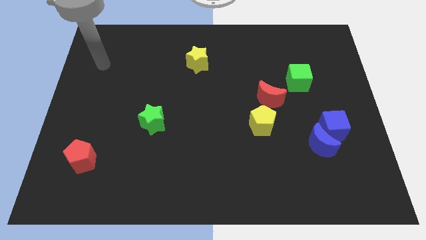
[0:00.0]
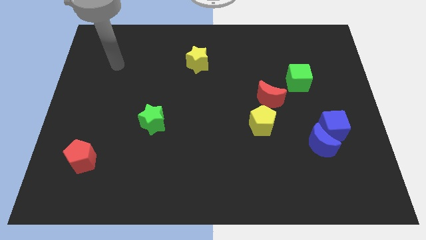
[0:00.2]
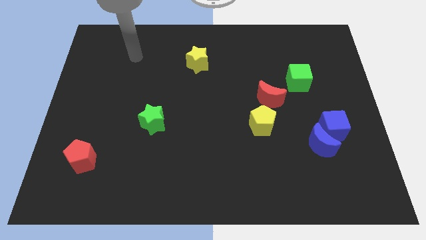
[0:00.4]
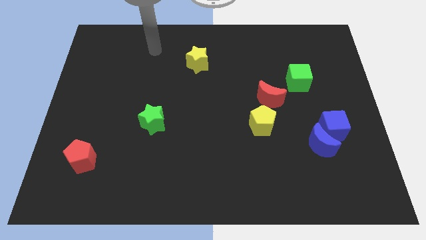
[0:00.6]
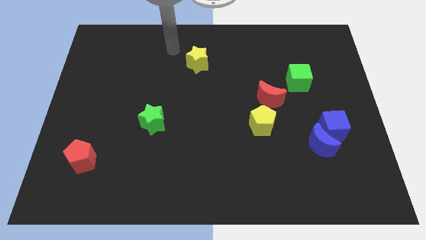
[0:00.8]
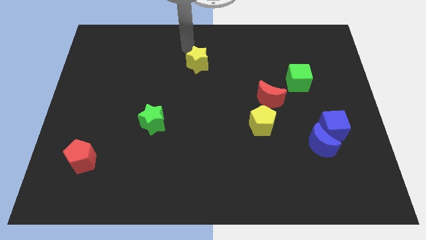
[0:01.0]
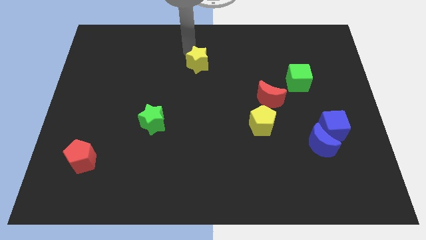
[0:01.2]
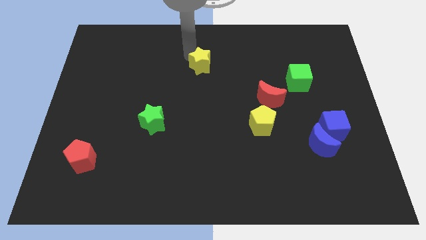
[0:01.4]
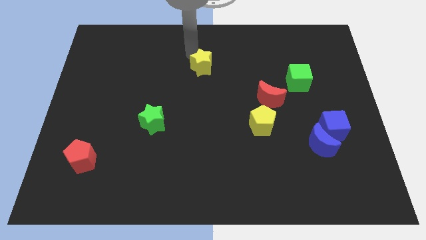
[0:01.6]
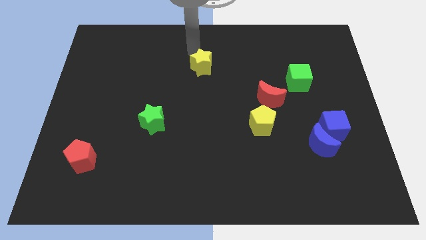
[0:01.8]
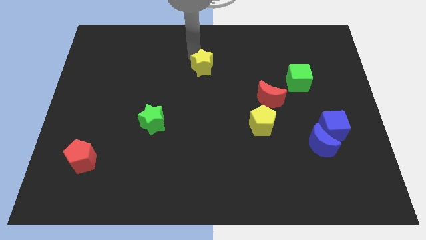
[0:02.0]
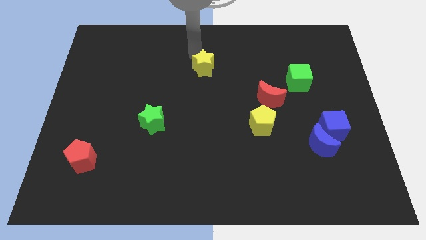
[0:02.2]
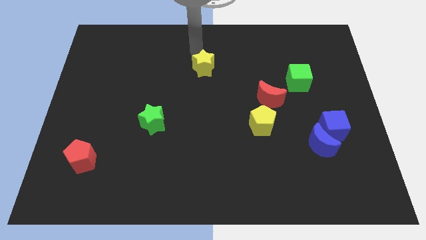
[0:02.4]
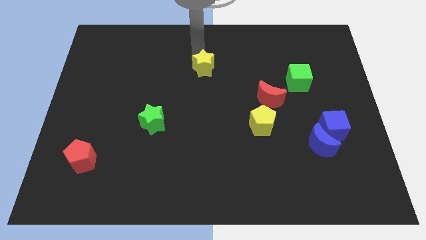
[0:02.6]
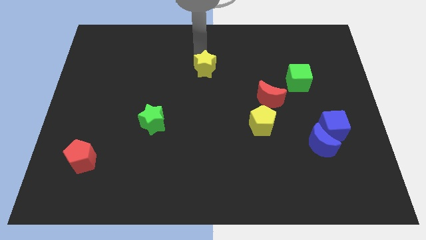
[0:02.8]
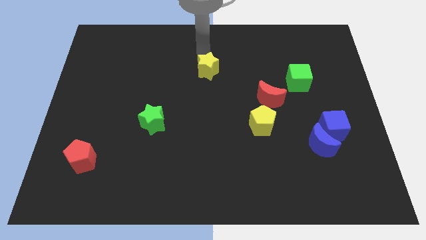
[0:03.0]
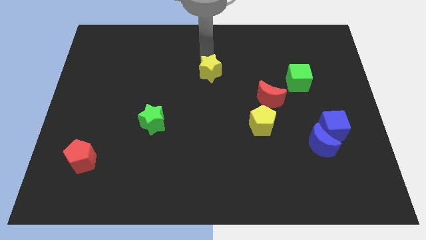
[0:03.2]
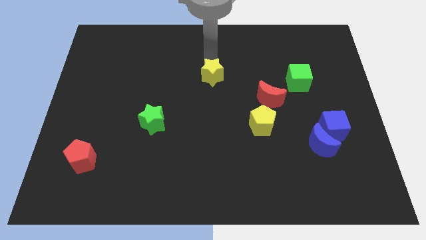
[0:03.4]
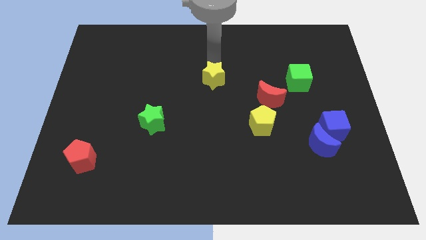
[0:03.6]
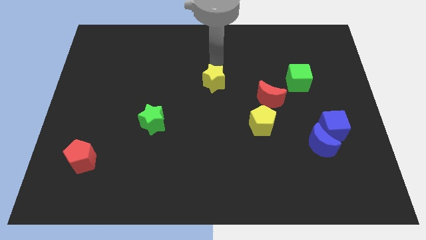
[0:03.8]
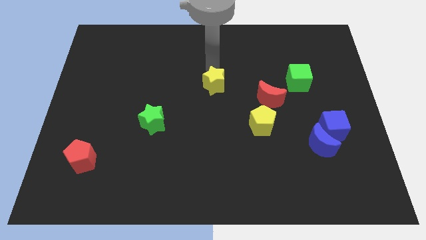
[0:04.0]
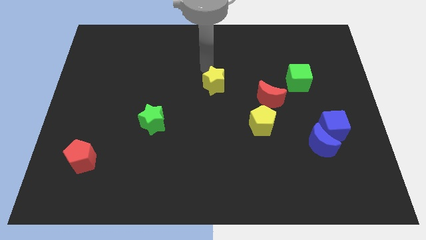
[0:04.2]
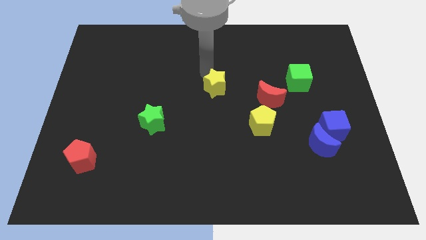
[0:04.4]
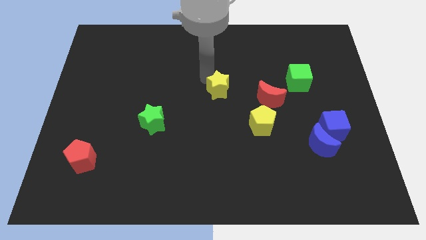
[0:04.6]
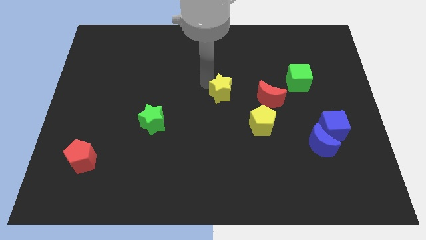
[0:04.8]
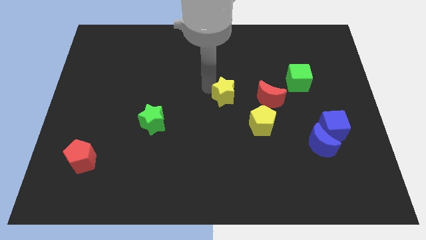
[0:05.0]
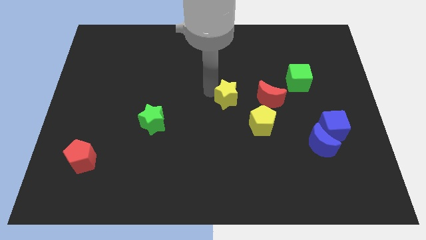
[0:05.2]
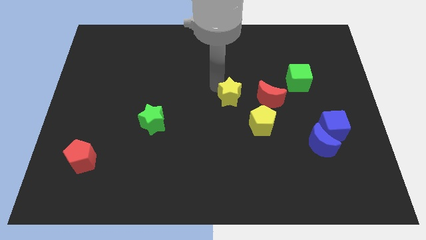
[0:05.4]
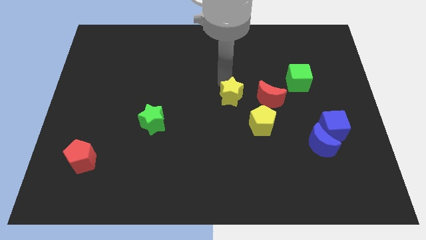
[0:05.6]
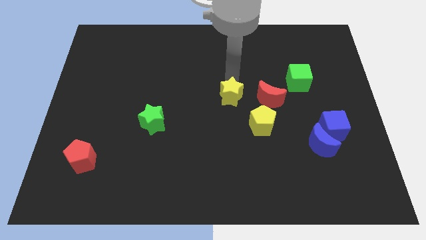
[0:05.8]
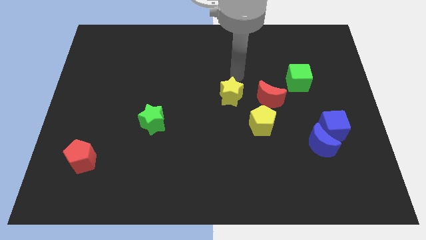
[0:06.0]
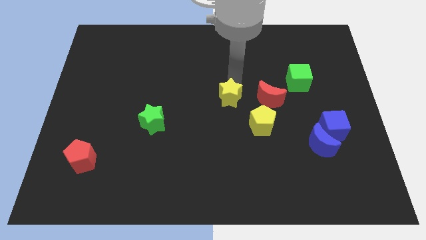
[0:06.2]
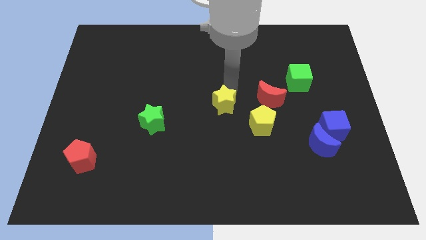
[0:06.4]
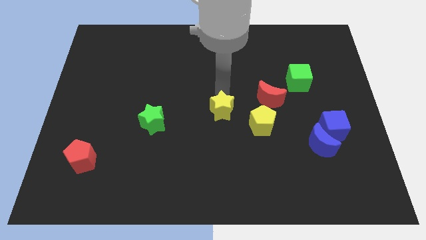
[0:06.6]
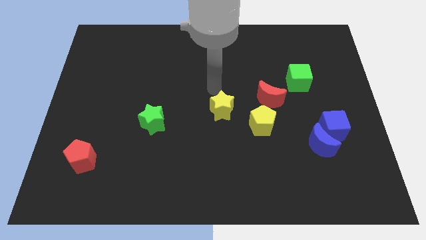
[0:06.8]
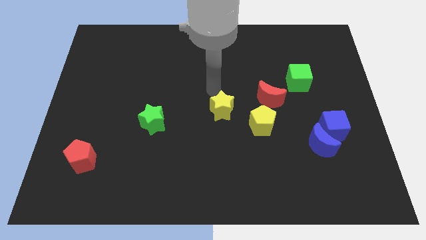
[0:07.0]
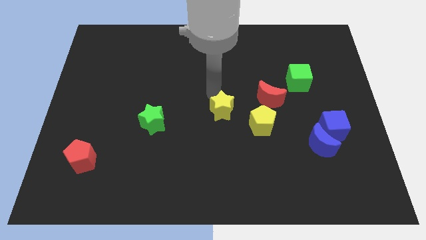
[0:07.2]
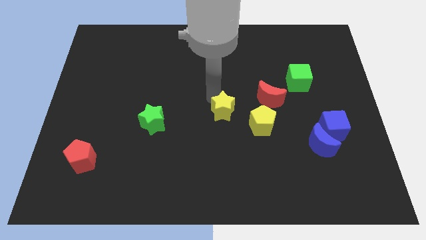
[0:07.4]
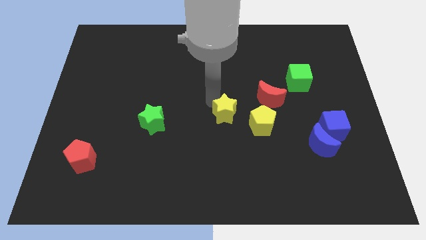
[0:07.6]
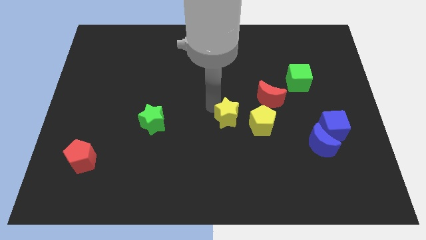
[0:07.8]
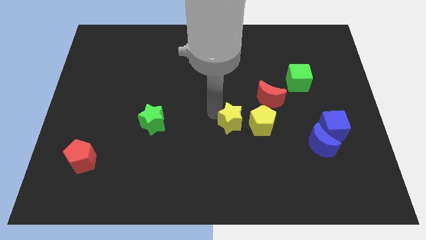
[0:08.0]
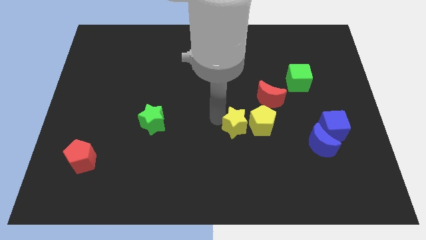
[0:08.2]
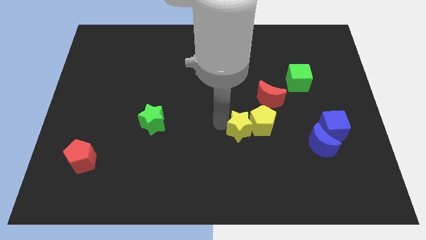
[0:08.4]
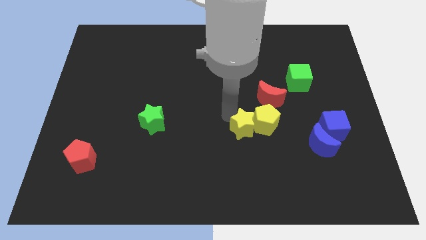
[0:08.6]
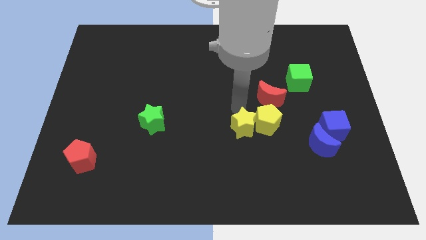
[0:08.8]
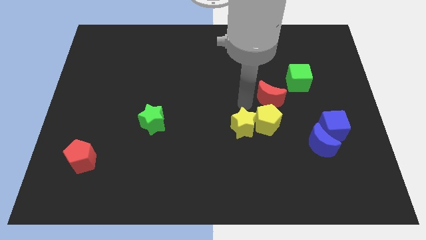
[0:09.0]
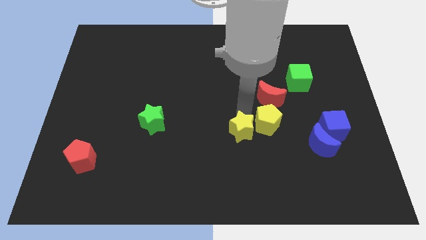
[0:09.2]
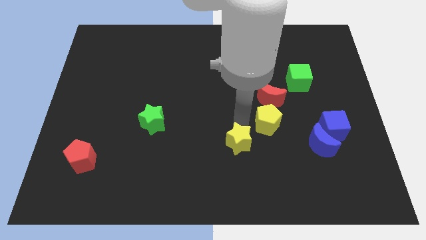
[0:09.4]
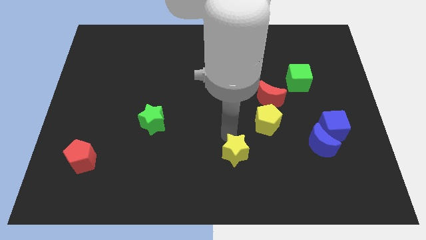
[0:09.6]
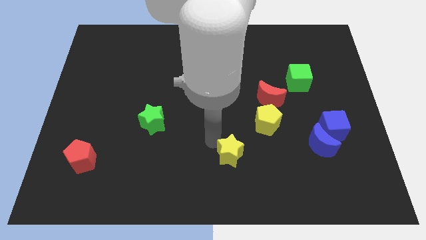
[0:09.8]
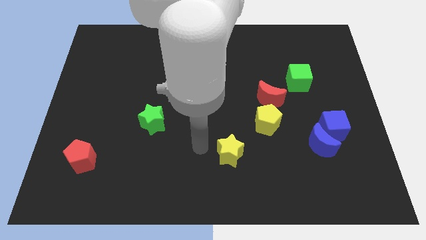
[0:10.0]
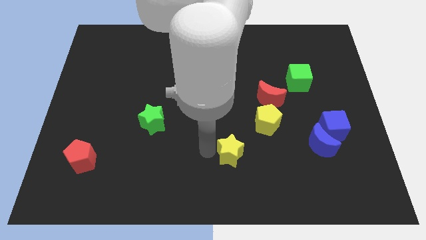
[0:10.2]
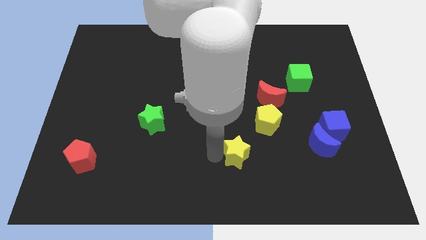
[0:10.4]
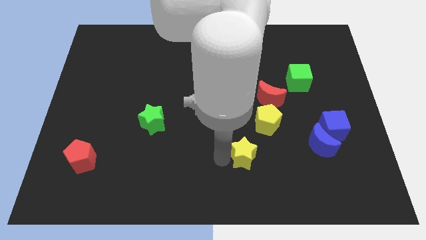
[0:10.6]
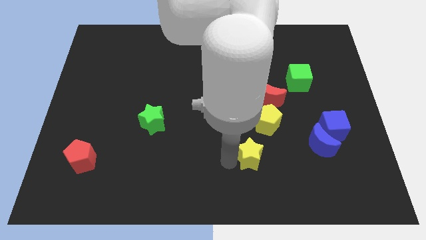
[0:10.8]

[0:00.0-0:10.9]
push the yellow star to the bottom side of the yellow pentagon

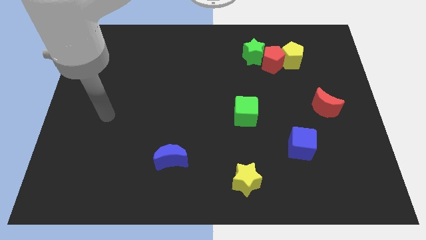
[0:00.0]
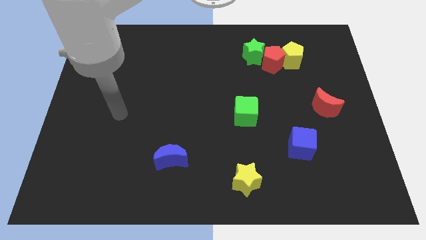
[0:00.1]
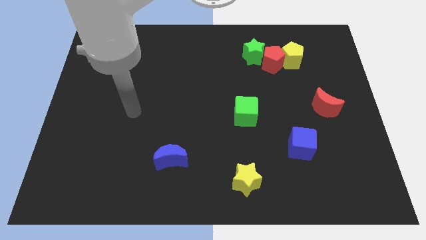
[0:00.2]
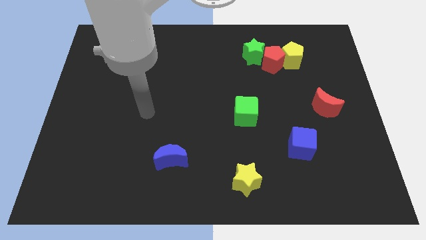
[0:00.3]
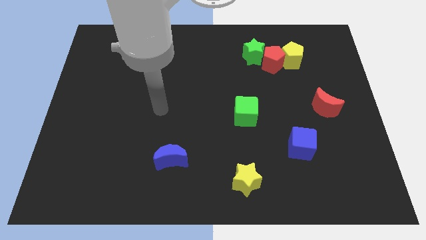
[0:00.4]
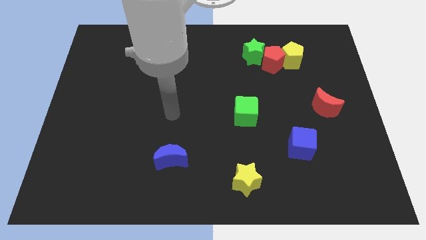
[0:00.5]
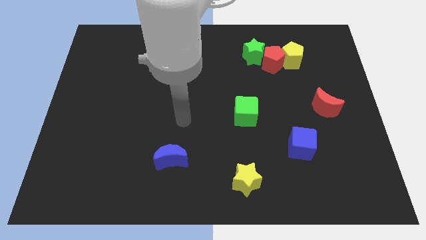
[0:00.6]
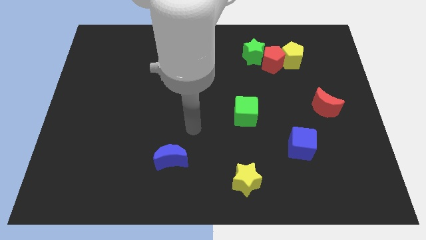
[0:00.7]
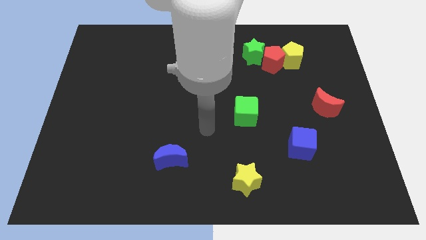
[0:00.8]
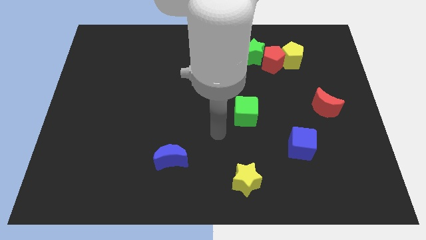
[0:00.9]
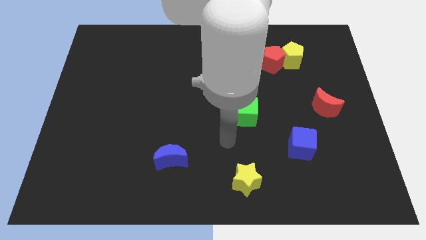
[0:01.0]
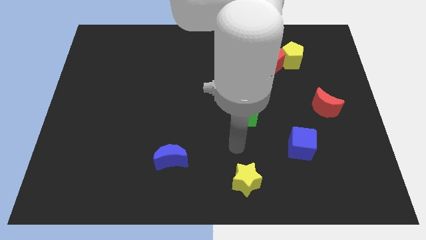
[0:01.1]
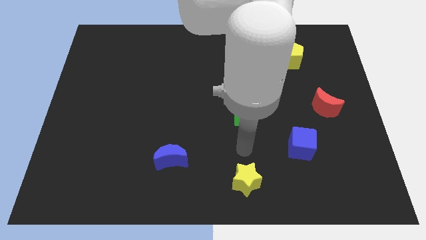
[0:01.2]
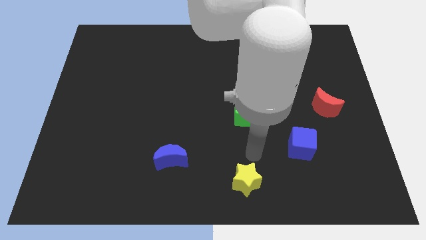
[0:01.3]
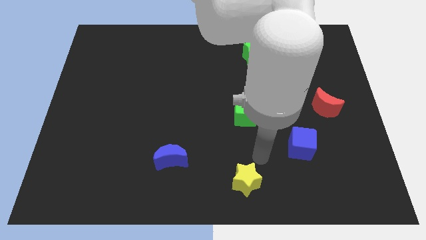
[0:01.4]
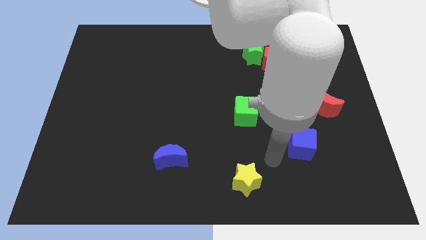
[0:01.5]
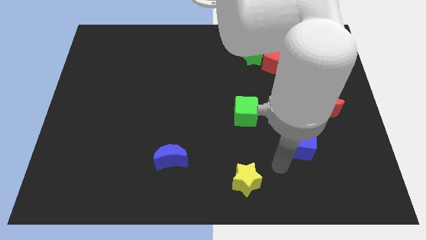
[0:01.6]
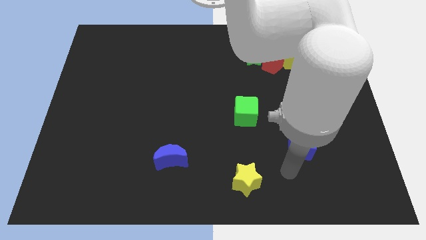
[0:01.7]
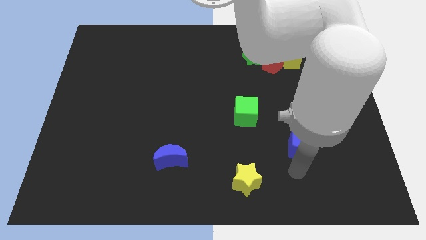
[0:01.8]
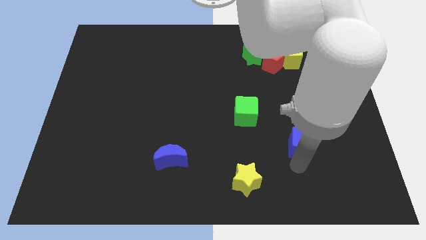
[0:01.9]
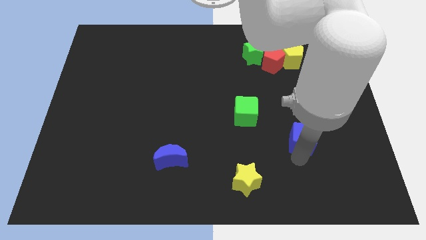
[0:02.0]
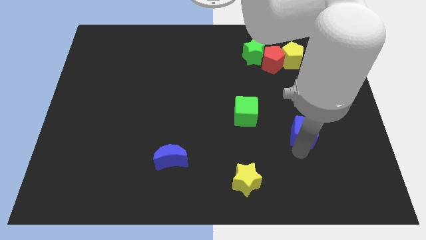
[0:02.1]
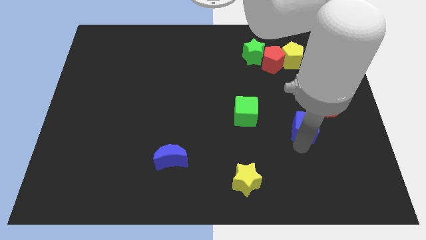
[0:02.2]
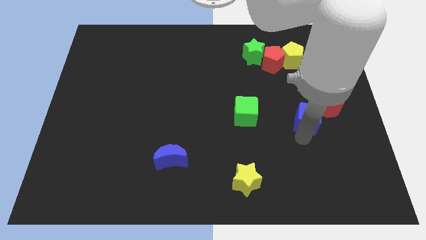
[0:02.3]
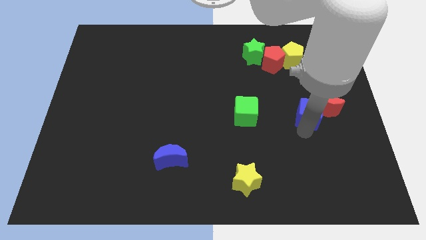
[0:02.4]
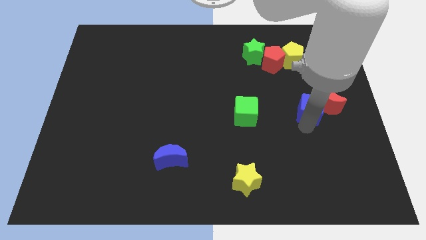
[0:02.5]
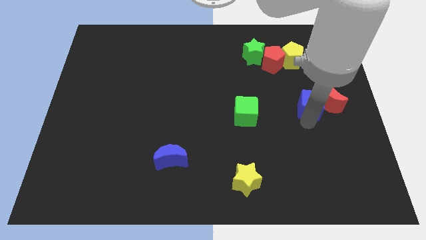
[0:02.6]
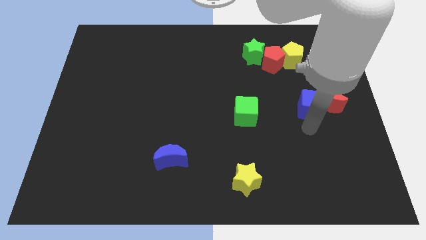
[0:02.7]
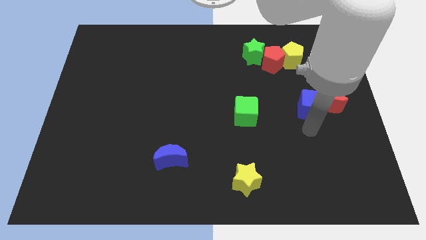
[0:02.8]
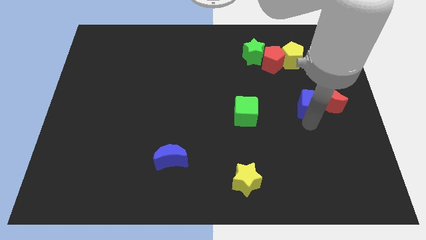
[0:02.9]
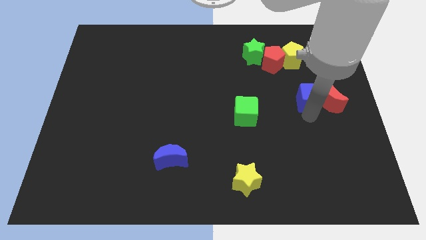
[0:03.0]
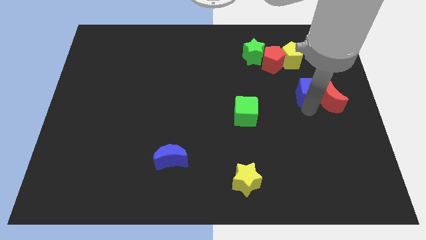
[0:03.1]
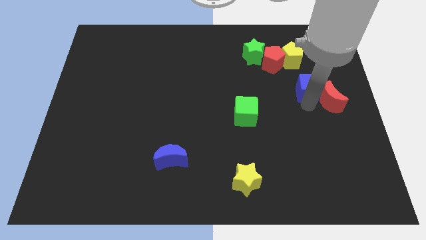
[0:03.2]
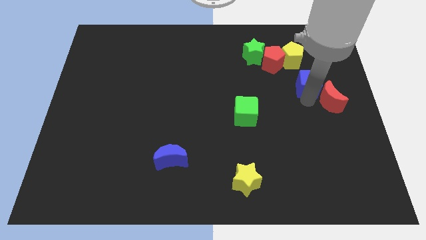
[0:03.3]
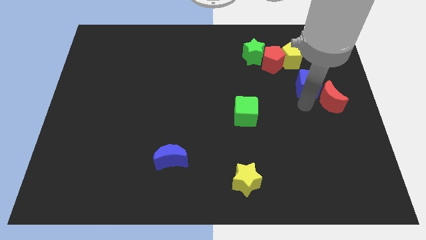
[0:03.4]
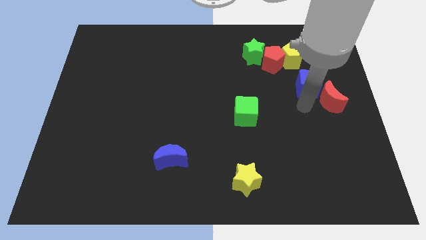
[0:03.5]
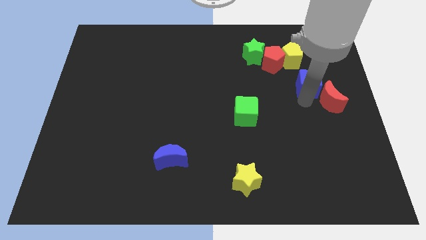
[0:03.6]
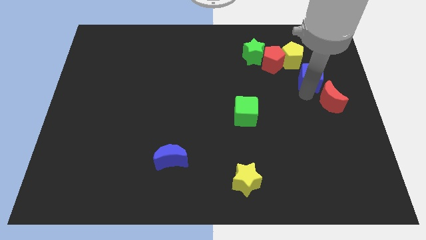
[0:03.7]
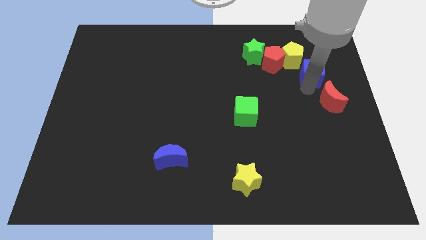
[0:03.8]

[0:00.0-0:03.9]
move the blue cube just right of the red pentagon
